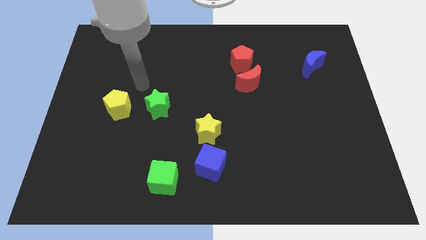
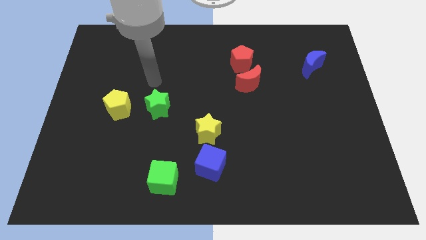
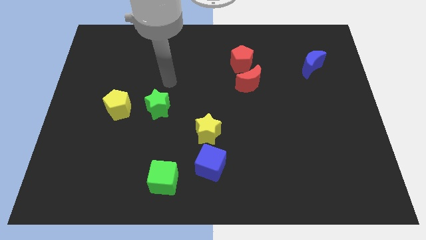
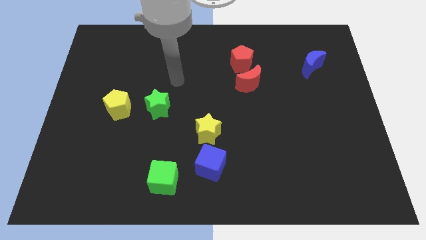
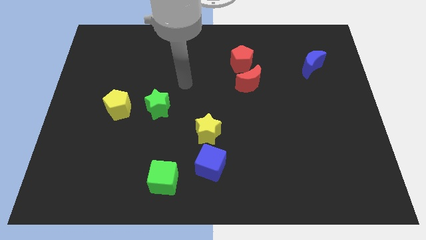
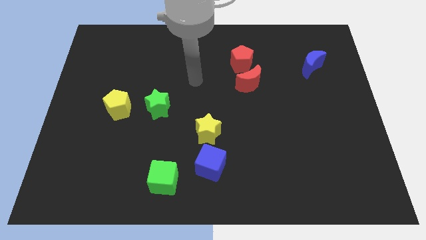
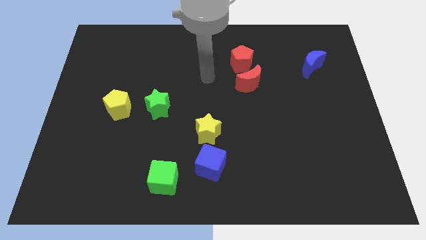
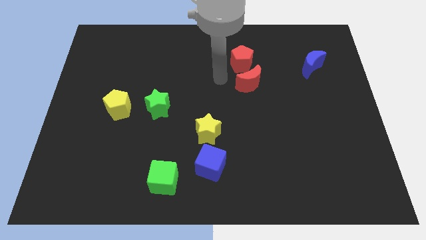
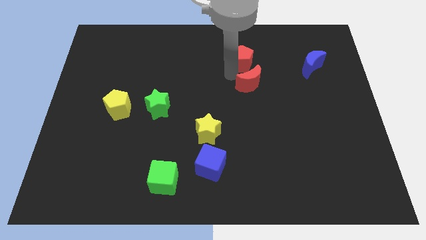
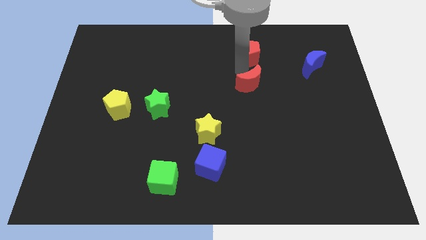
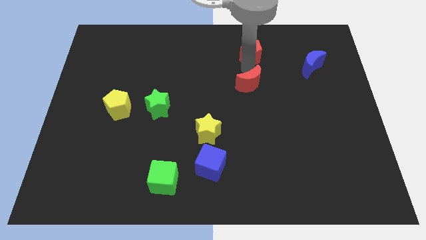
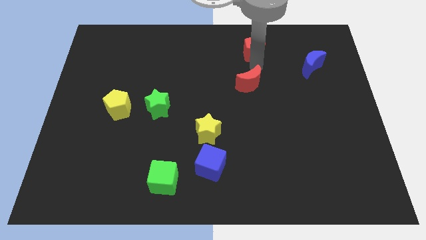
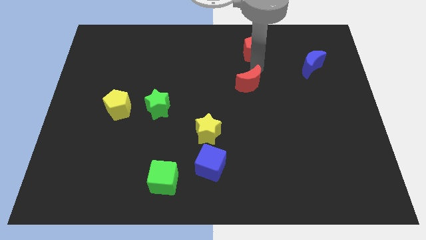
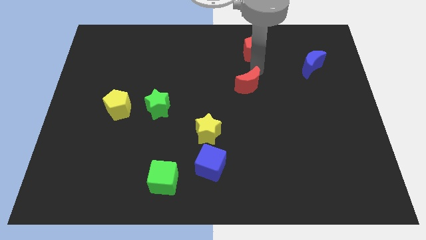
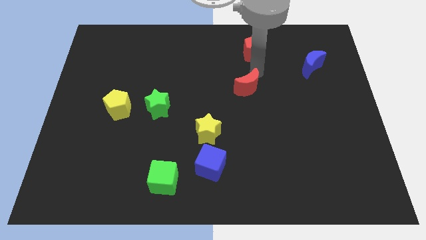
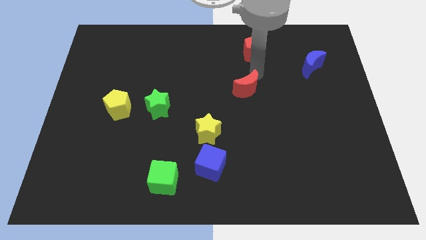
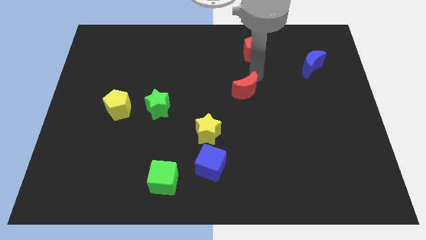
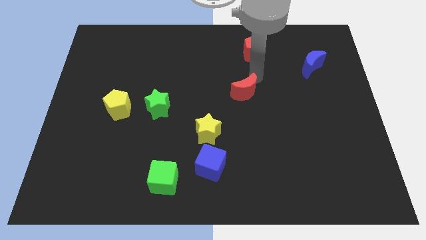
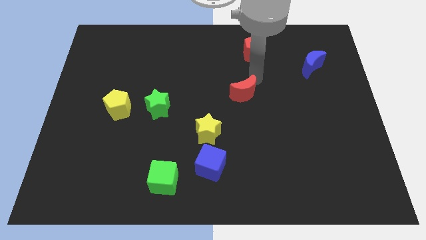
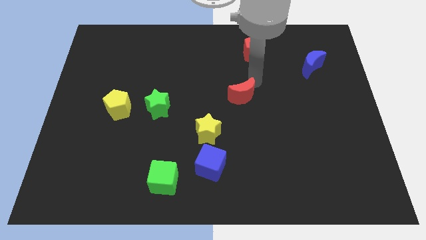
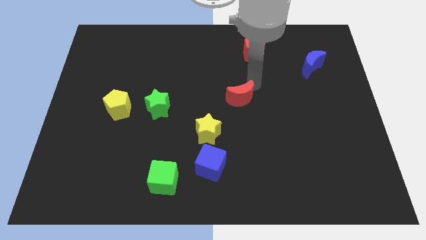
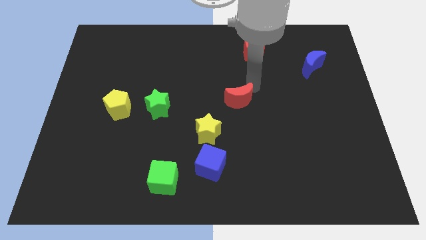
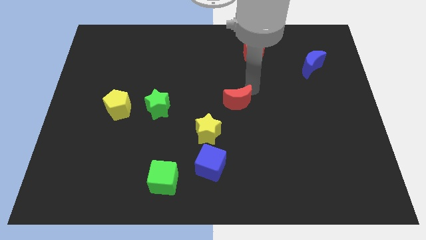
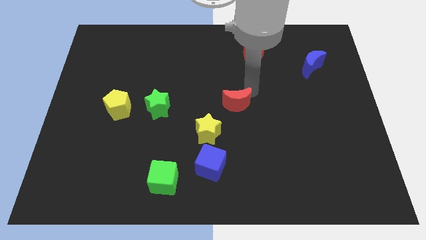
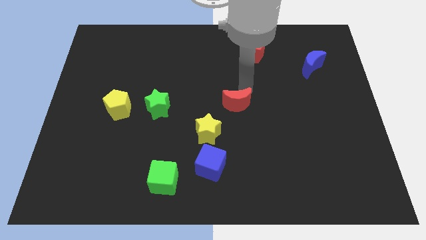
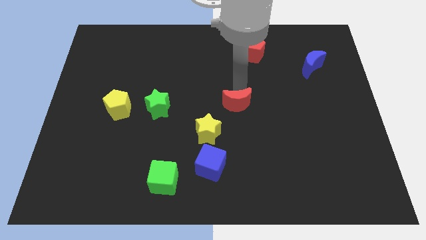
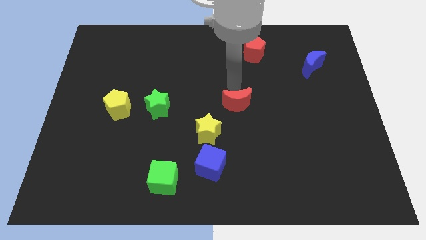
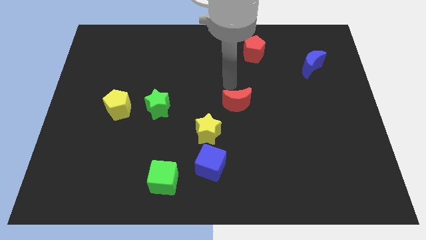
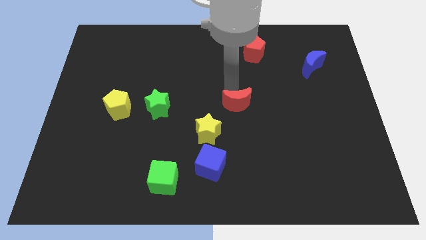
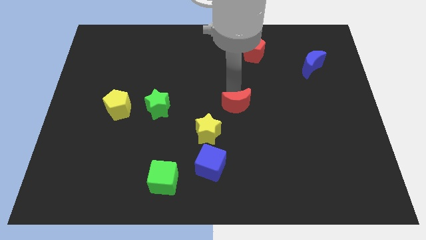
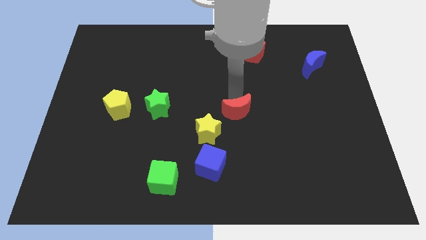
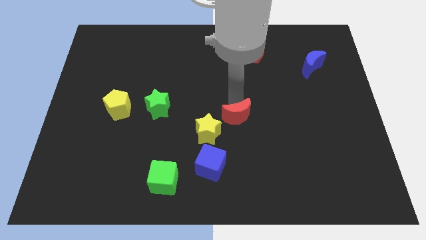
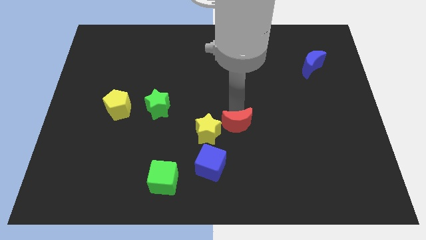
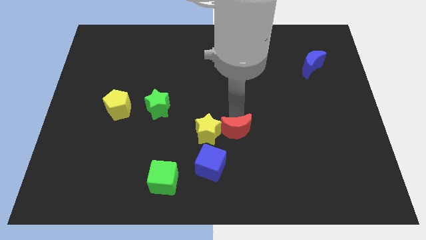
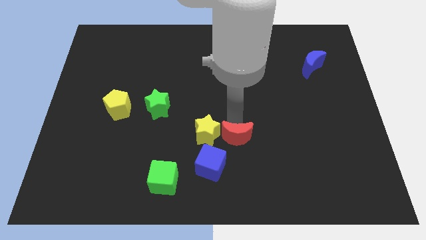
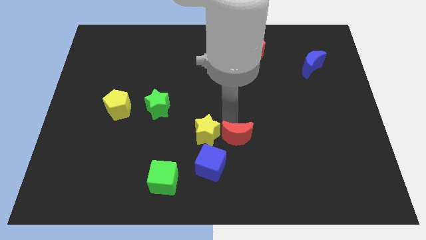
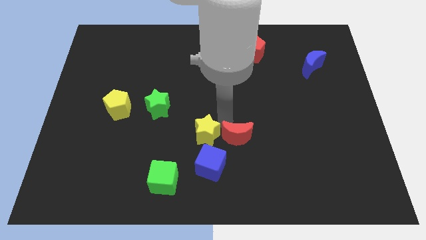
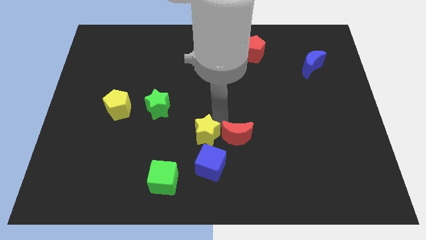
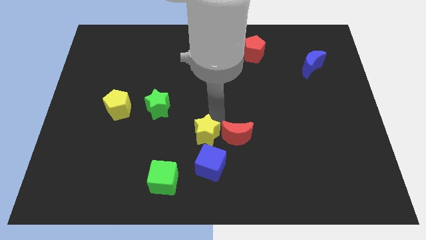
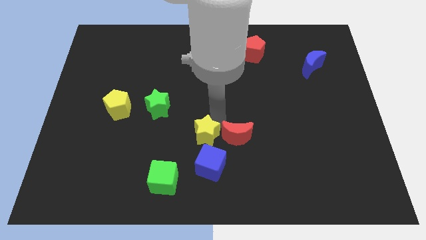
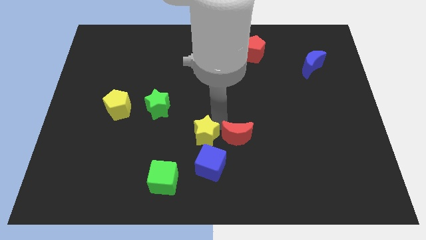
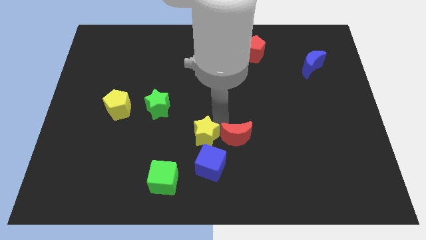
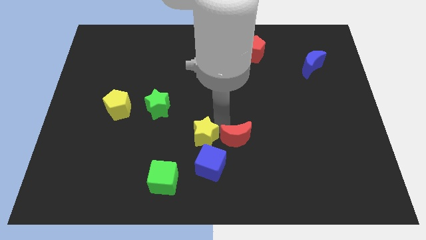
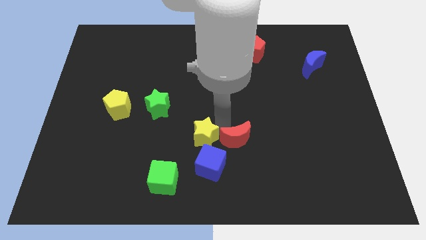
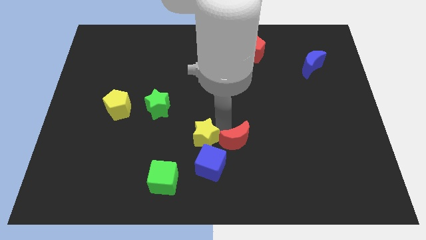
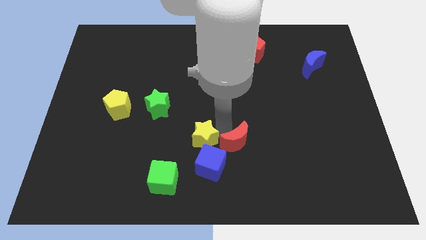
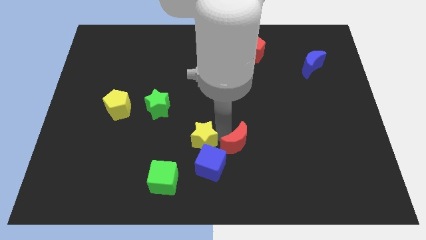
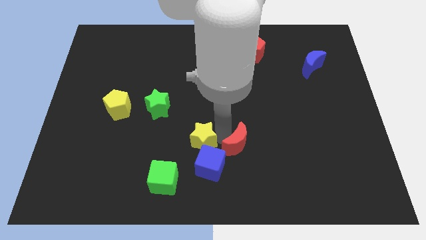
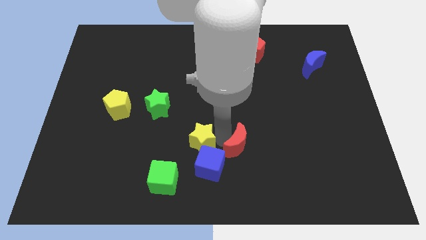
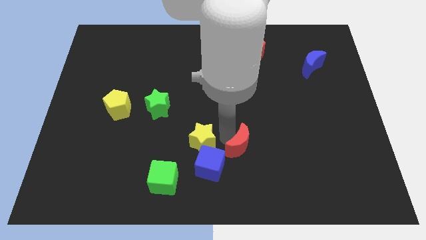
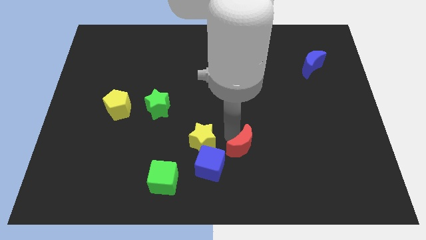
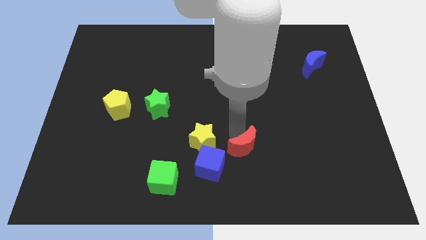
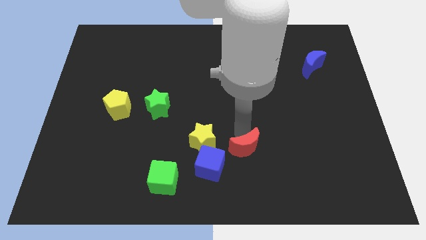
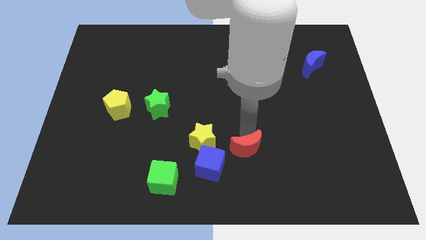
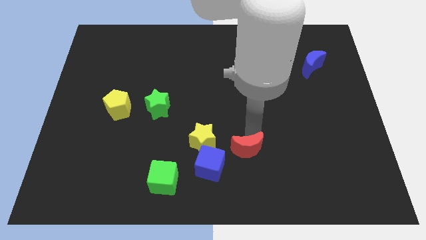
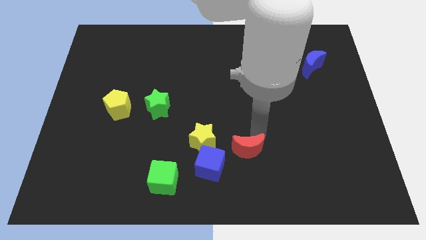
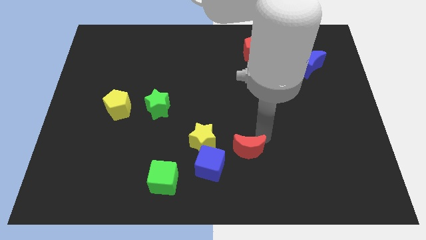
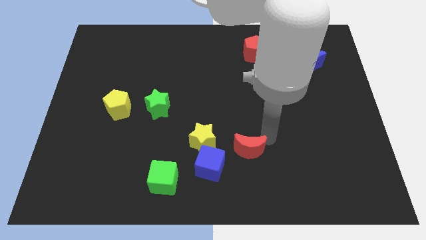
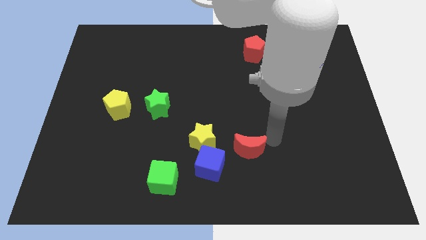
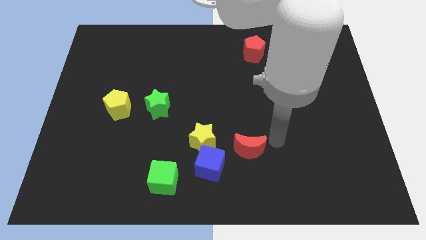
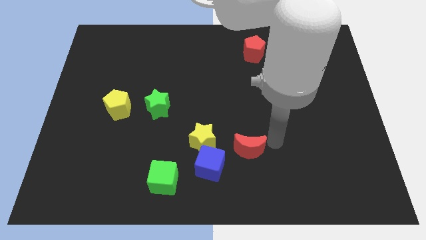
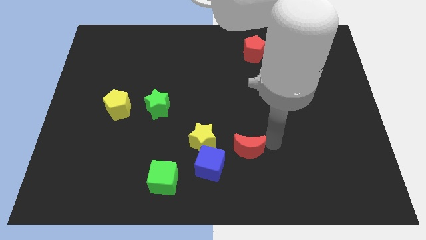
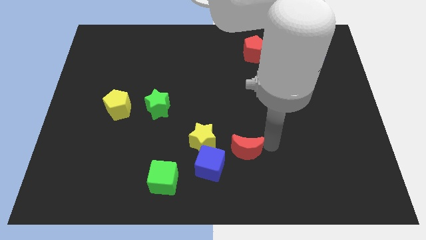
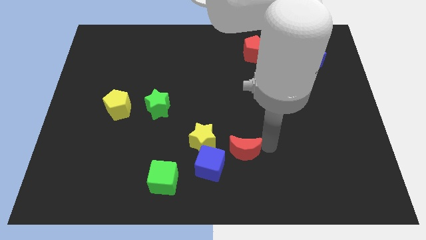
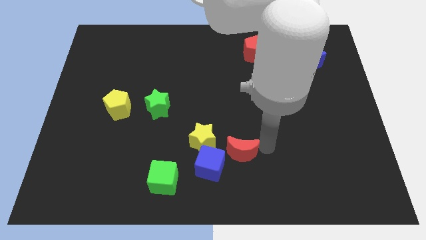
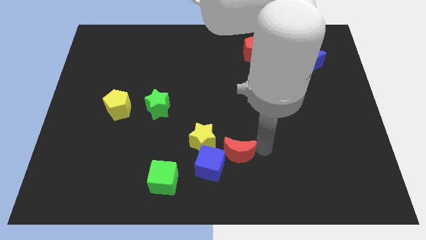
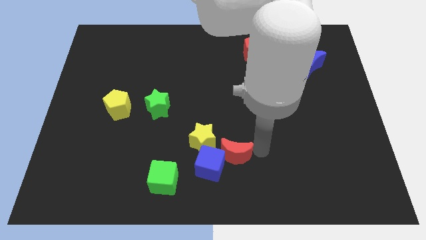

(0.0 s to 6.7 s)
put the red moon next to the blue cube
